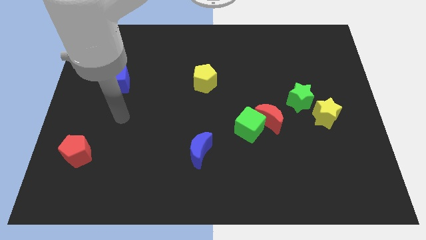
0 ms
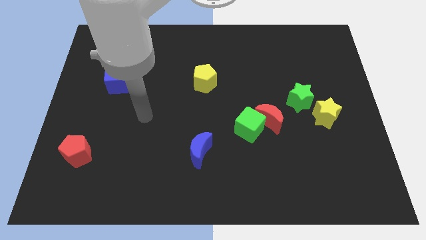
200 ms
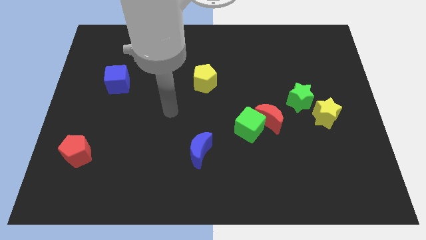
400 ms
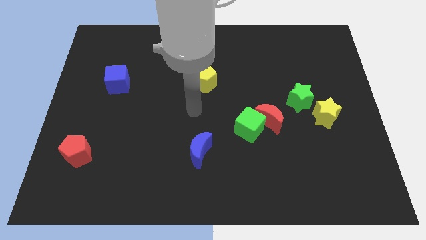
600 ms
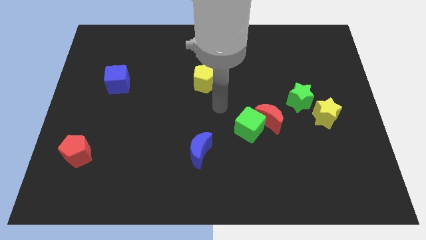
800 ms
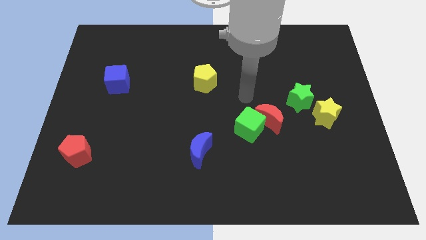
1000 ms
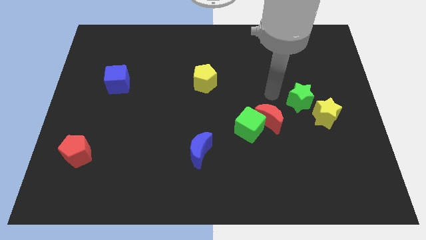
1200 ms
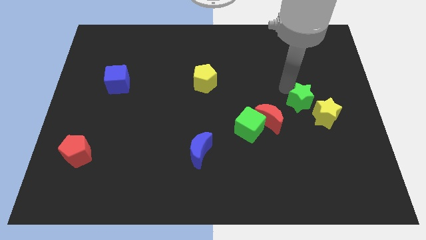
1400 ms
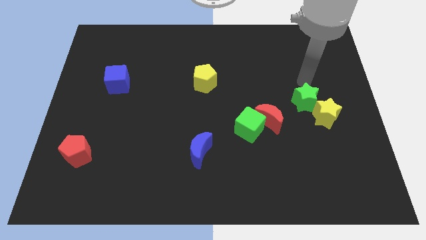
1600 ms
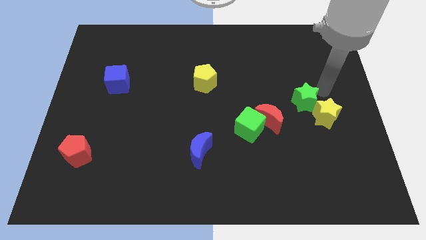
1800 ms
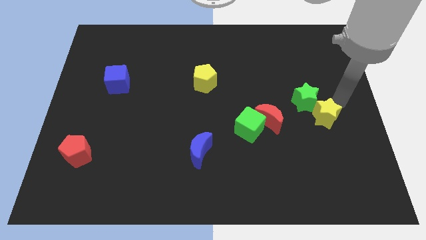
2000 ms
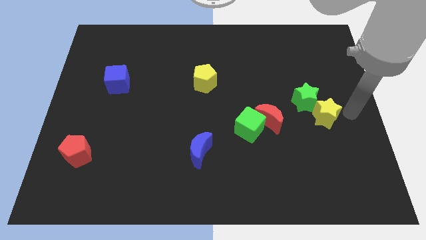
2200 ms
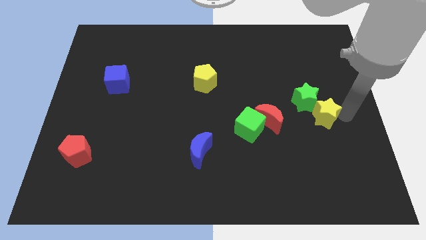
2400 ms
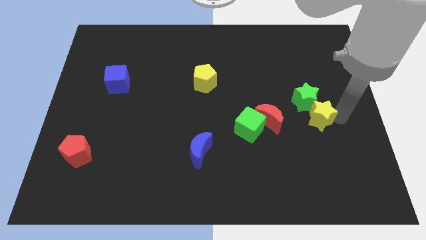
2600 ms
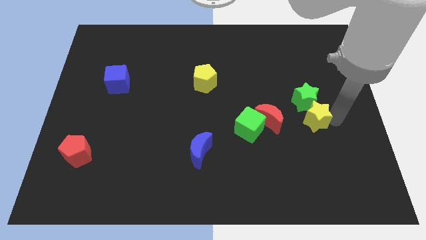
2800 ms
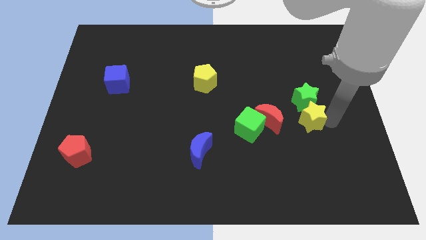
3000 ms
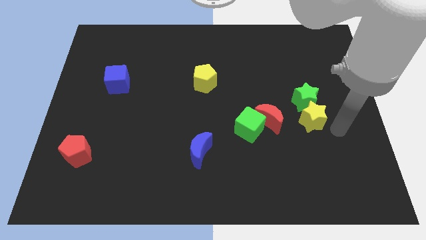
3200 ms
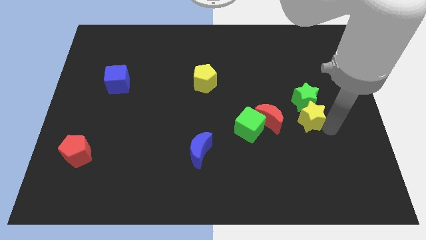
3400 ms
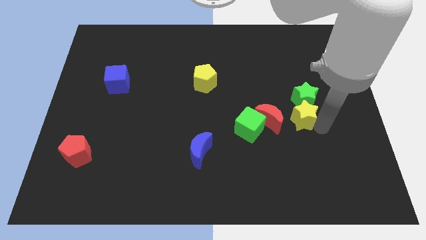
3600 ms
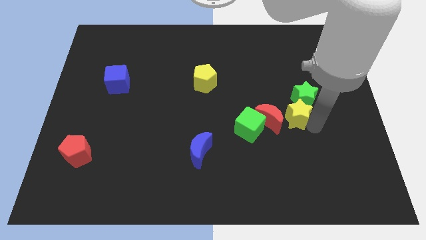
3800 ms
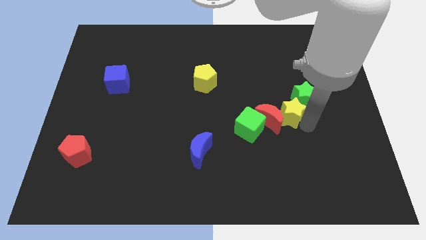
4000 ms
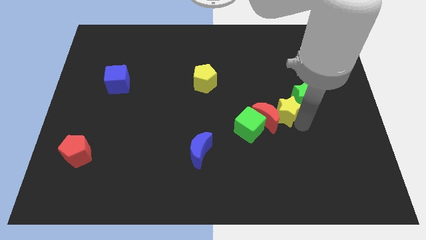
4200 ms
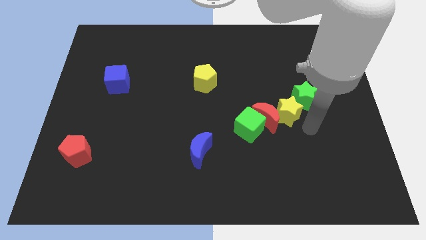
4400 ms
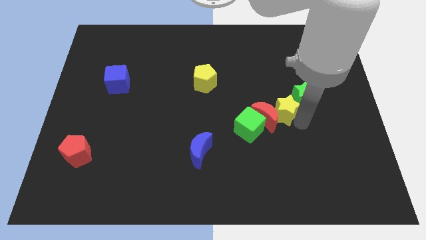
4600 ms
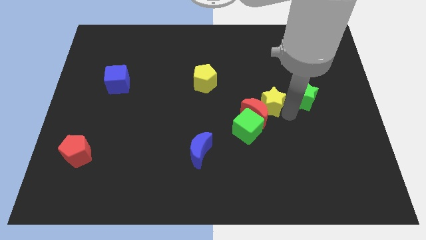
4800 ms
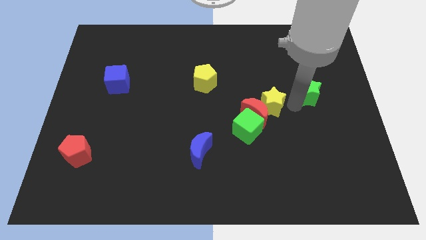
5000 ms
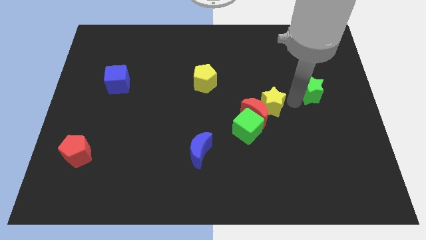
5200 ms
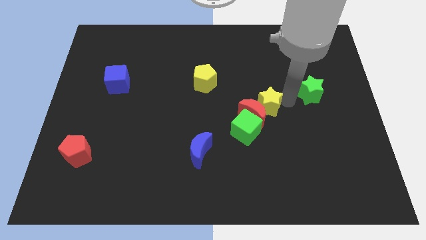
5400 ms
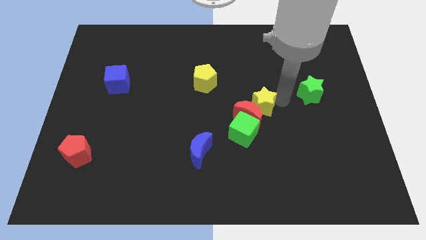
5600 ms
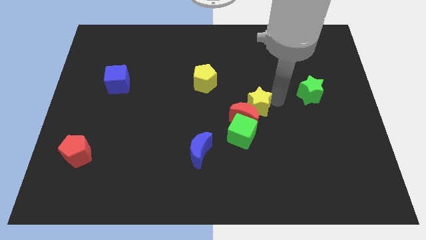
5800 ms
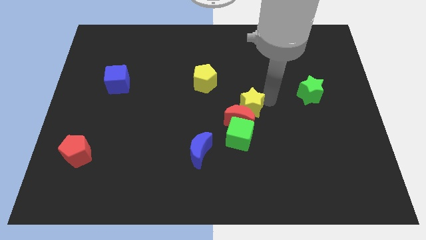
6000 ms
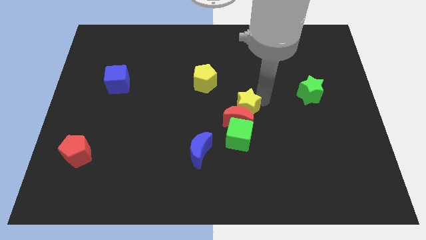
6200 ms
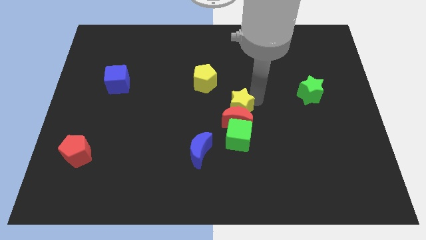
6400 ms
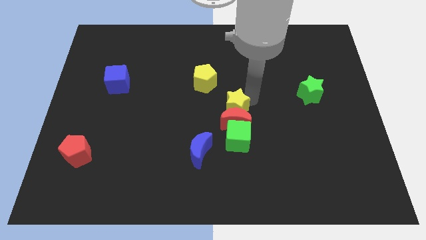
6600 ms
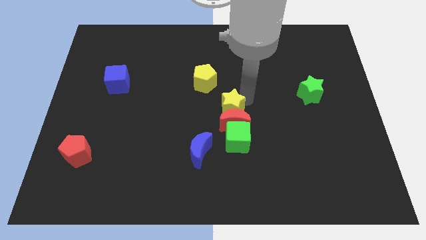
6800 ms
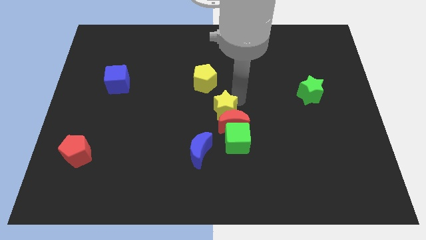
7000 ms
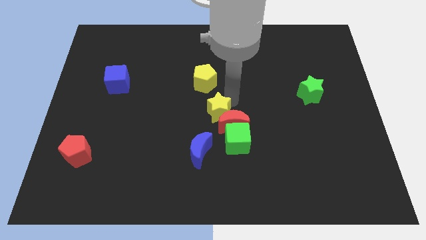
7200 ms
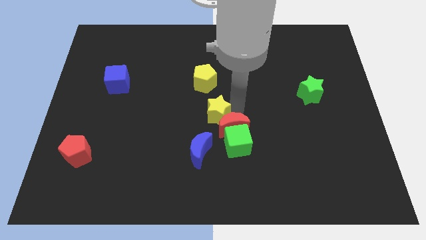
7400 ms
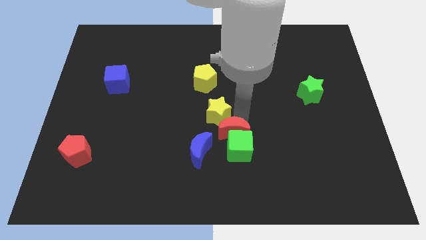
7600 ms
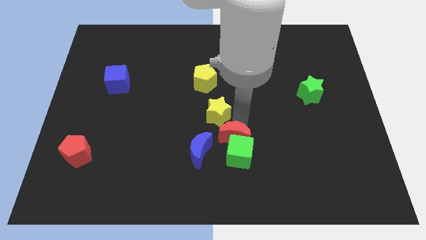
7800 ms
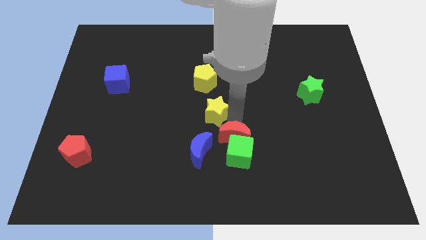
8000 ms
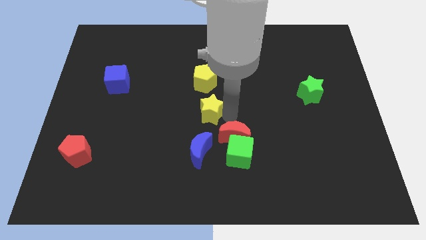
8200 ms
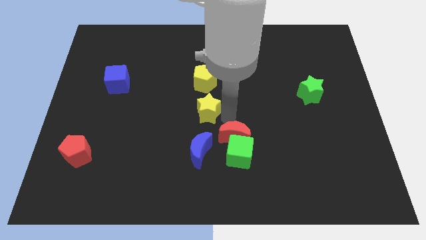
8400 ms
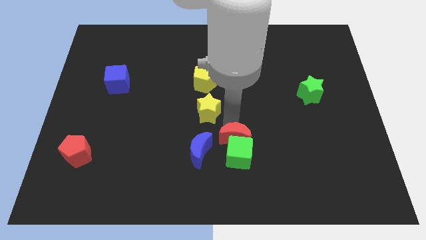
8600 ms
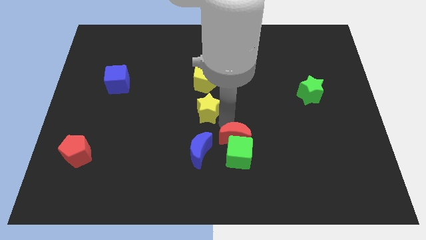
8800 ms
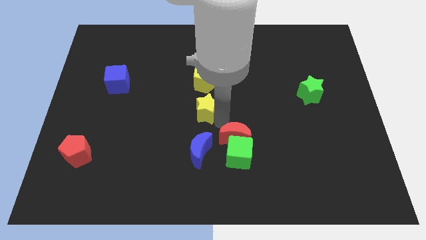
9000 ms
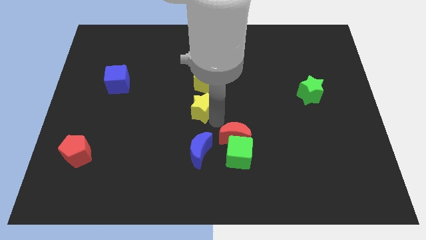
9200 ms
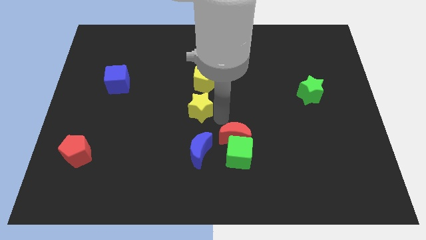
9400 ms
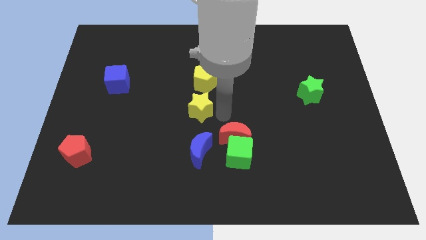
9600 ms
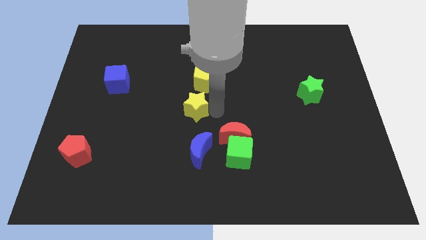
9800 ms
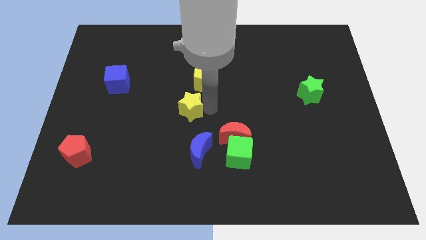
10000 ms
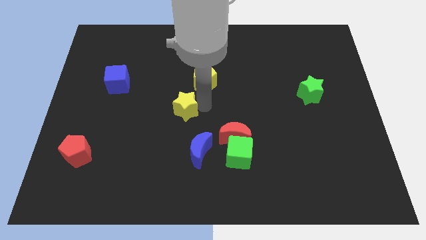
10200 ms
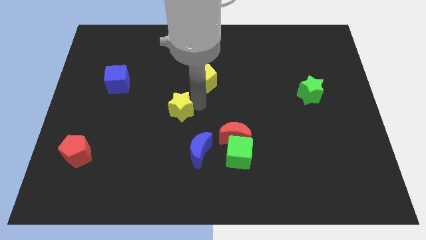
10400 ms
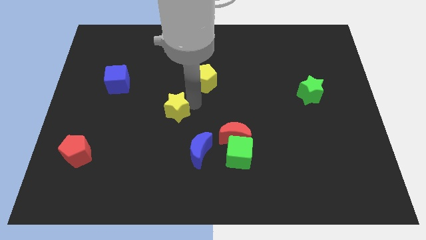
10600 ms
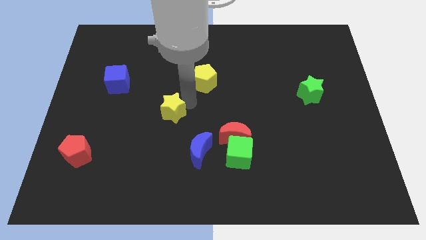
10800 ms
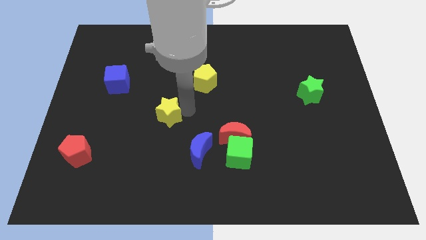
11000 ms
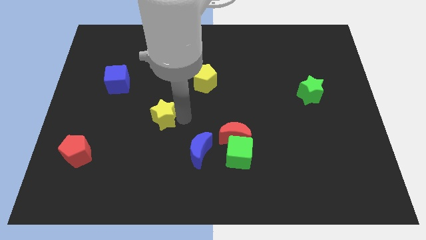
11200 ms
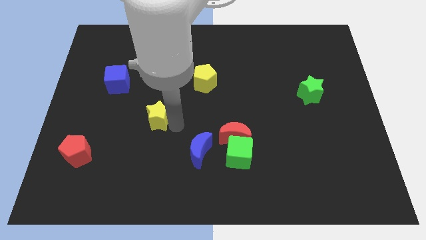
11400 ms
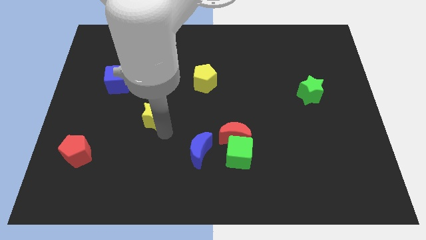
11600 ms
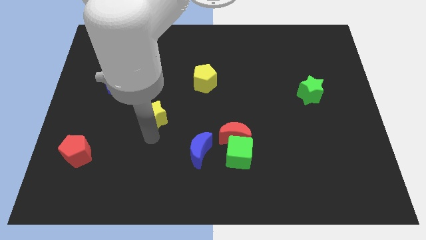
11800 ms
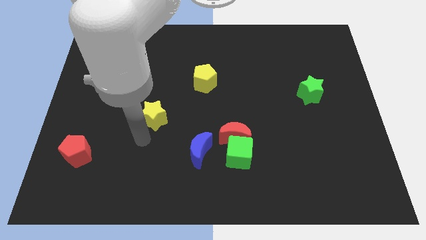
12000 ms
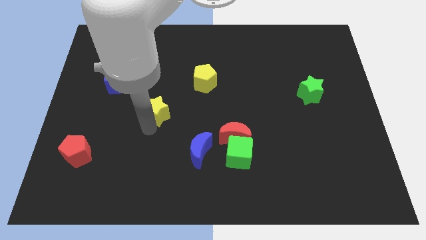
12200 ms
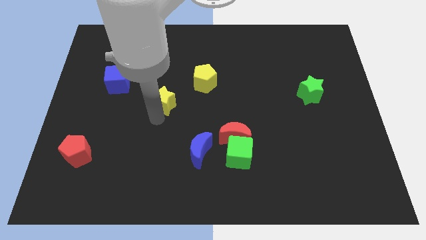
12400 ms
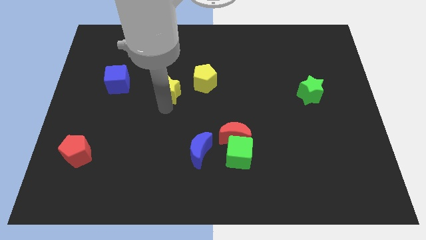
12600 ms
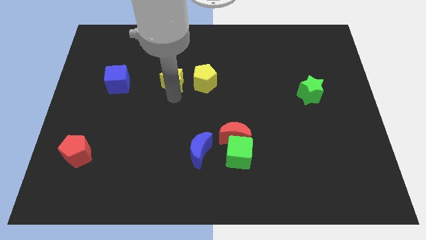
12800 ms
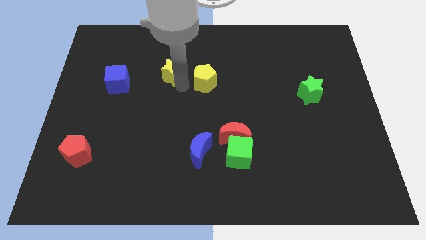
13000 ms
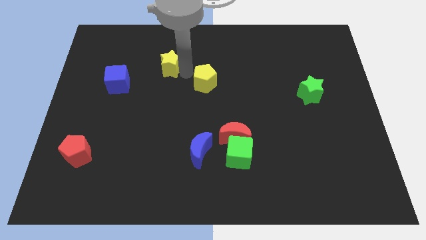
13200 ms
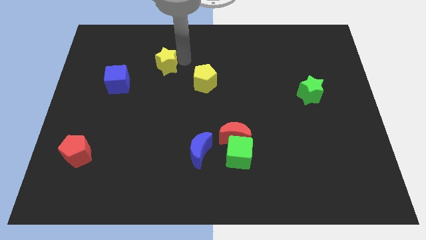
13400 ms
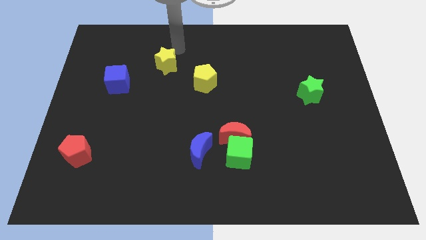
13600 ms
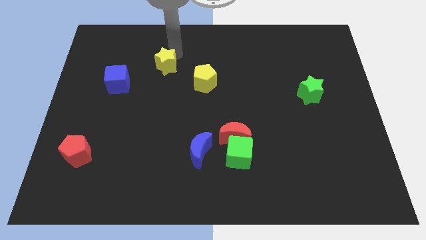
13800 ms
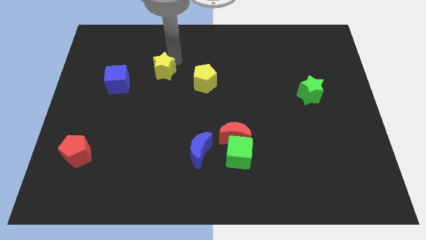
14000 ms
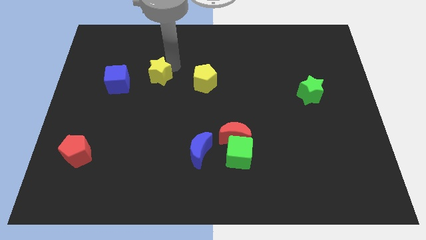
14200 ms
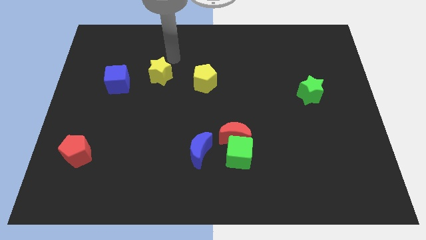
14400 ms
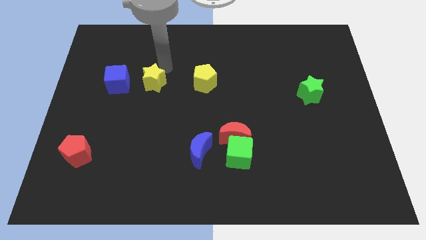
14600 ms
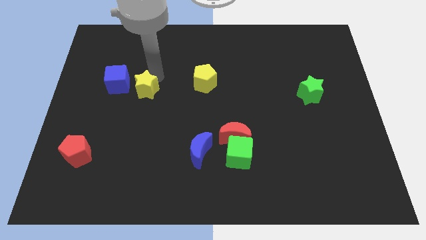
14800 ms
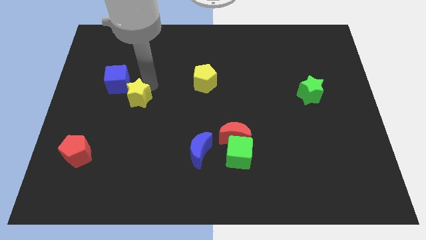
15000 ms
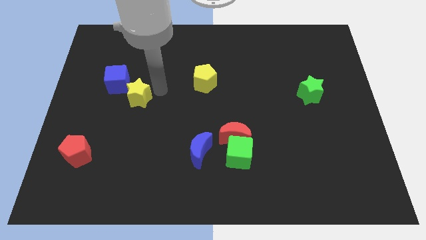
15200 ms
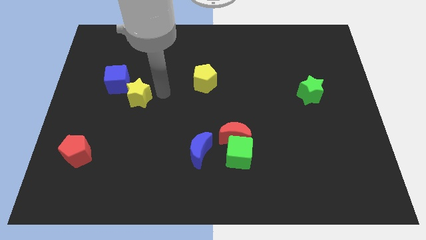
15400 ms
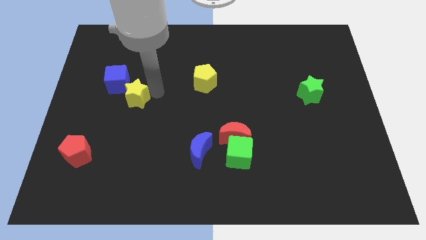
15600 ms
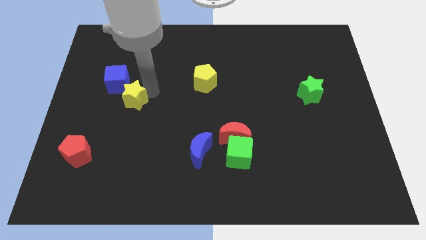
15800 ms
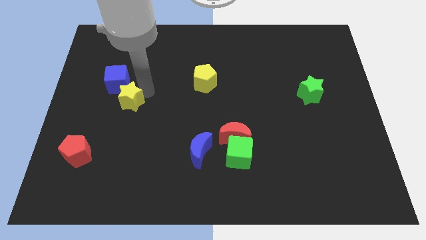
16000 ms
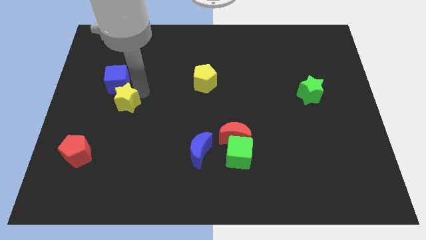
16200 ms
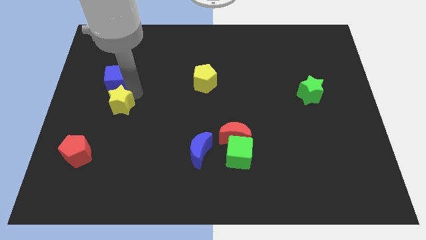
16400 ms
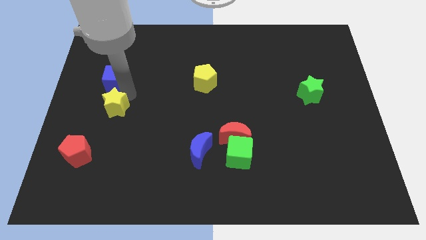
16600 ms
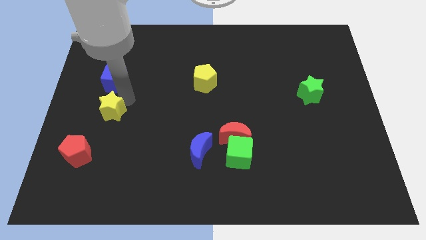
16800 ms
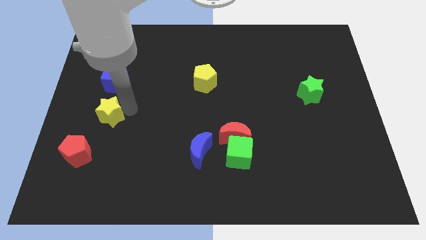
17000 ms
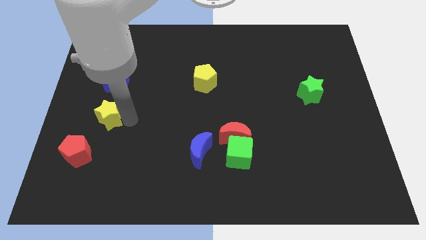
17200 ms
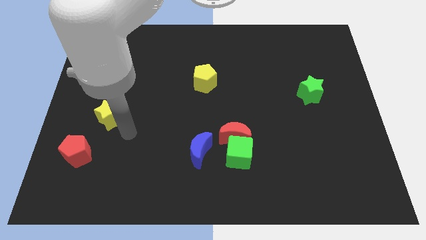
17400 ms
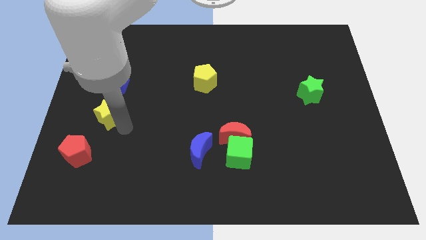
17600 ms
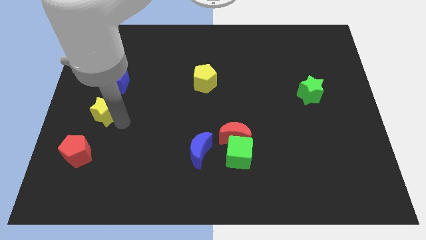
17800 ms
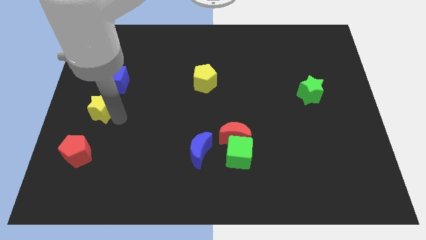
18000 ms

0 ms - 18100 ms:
move the yellow star to the bottom left side of the blue cube
